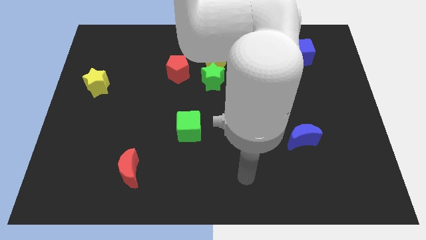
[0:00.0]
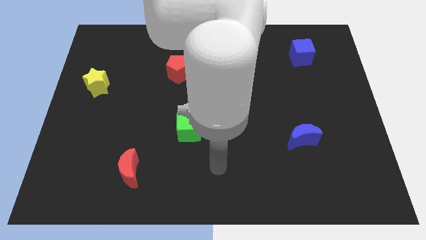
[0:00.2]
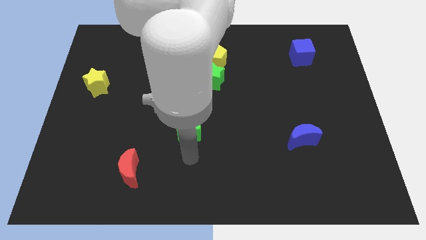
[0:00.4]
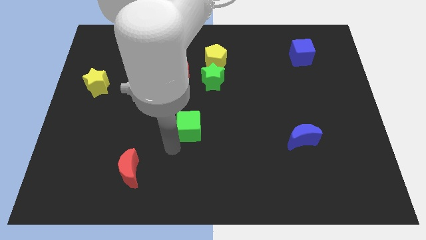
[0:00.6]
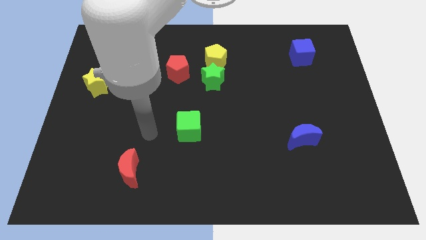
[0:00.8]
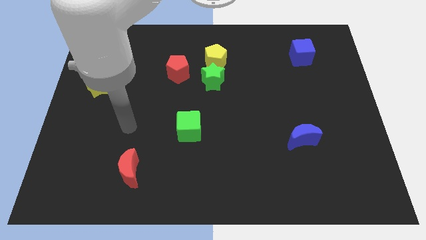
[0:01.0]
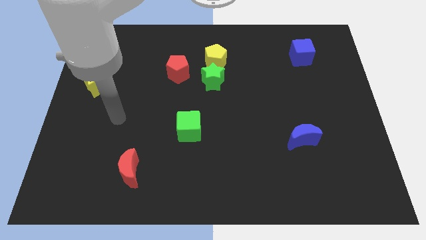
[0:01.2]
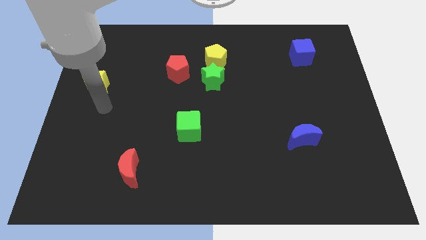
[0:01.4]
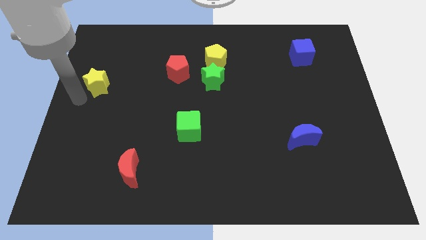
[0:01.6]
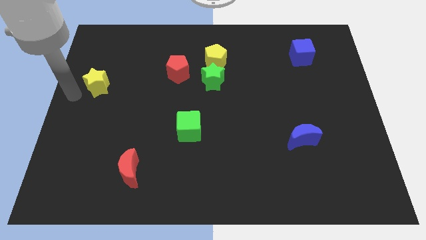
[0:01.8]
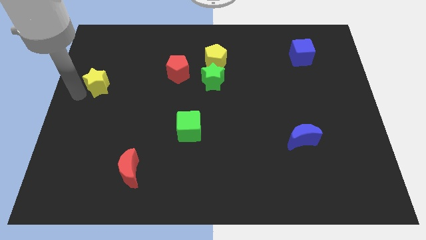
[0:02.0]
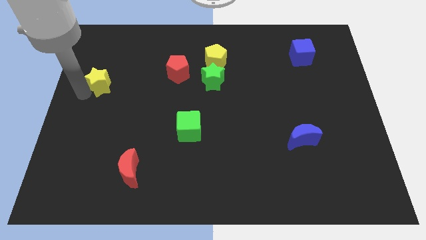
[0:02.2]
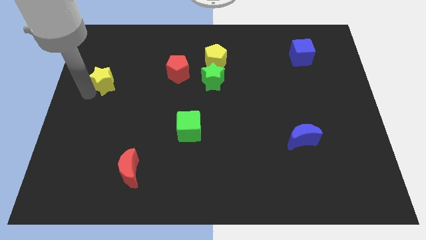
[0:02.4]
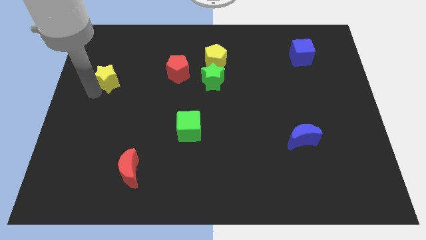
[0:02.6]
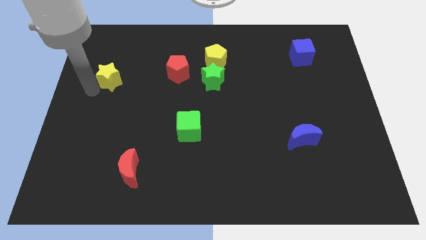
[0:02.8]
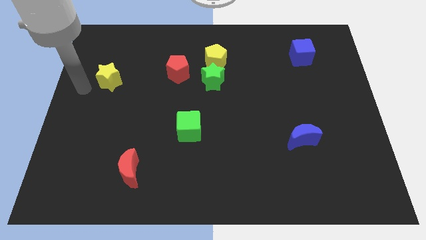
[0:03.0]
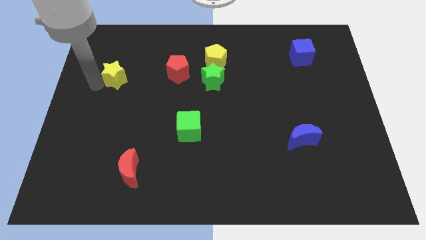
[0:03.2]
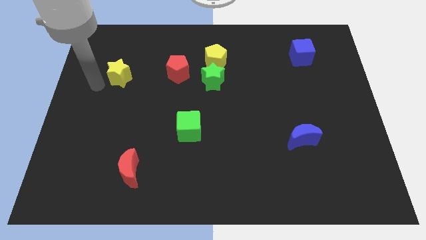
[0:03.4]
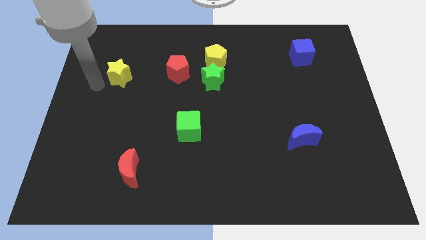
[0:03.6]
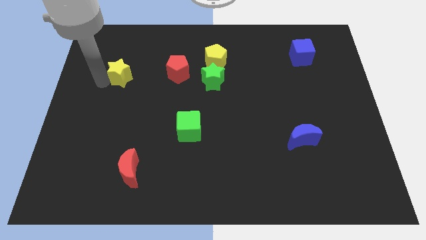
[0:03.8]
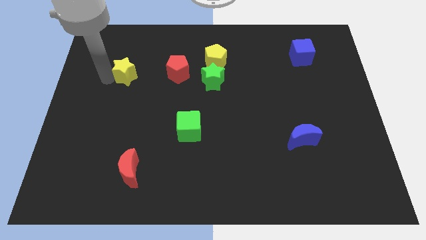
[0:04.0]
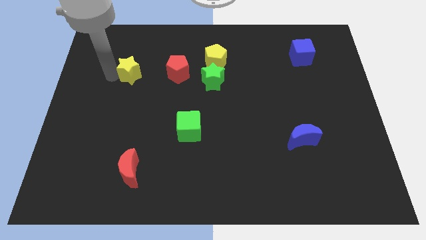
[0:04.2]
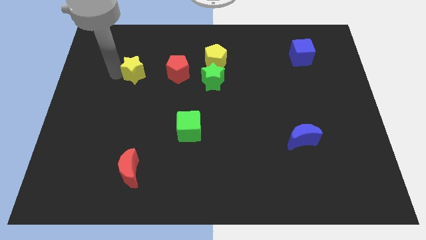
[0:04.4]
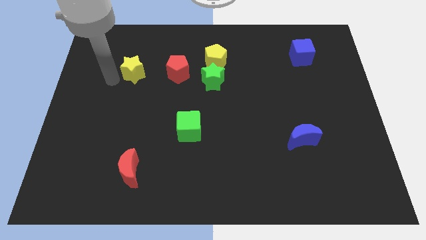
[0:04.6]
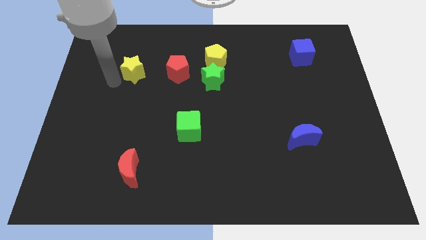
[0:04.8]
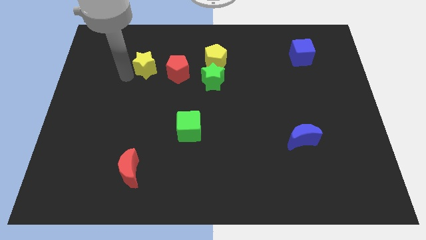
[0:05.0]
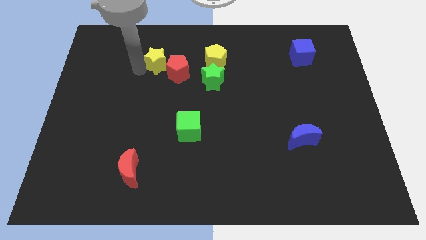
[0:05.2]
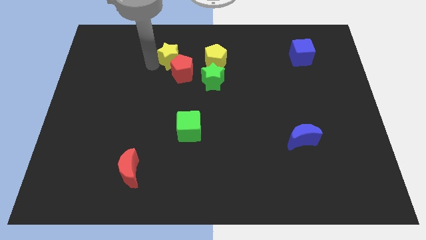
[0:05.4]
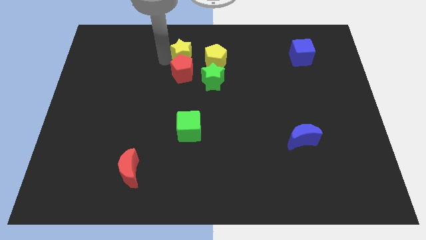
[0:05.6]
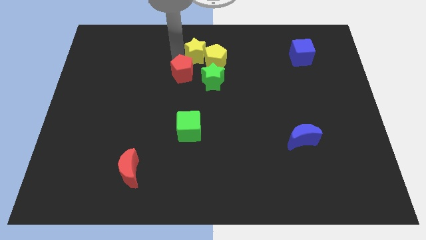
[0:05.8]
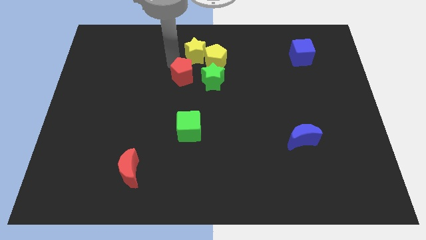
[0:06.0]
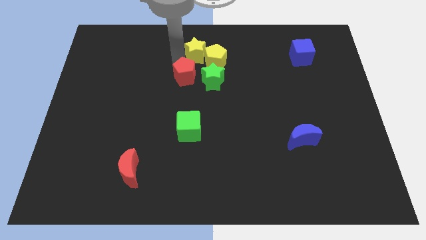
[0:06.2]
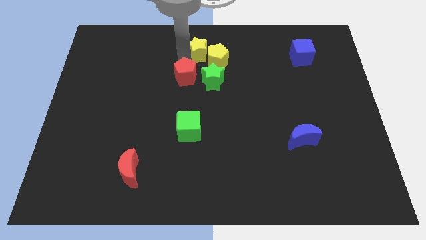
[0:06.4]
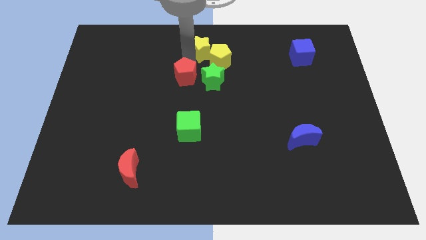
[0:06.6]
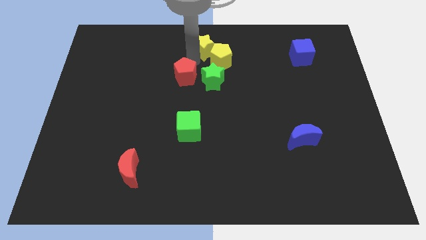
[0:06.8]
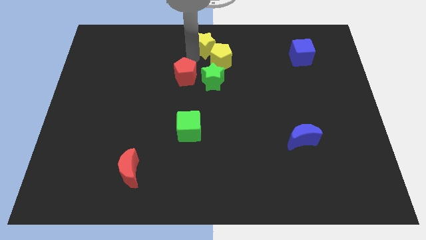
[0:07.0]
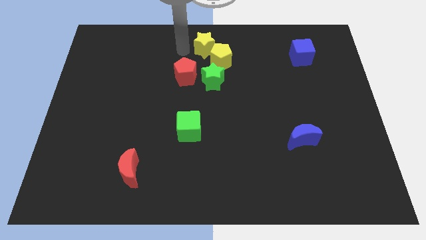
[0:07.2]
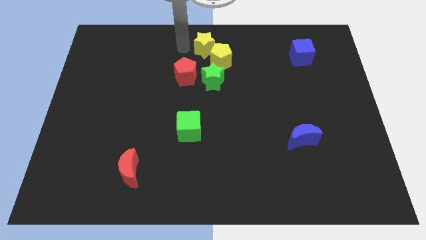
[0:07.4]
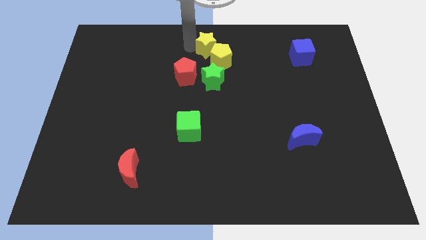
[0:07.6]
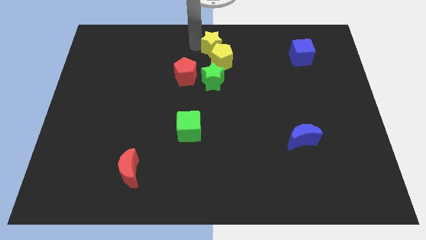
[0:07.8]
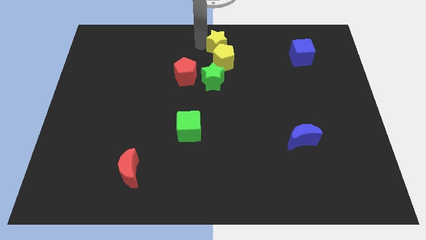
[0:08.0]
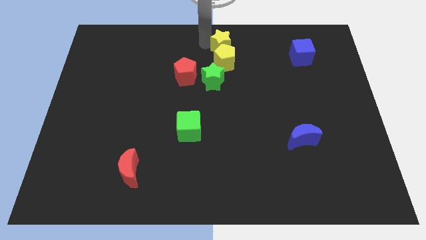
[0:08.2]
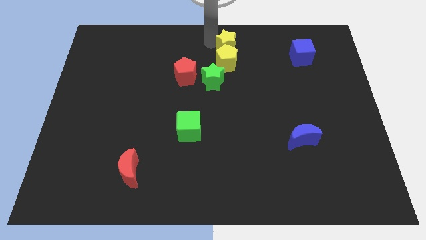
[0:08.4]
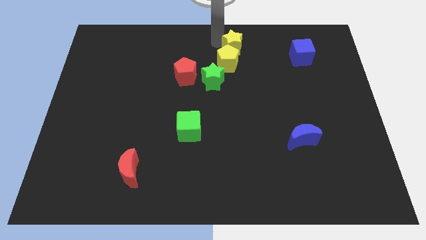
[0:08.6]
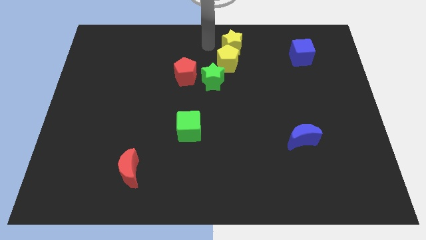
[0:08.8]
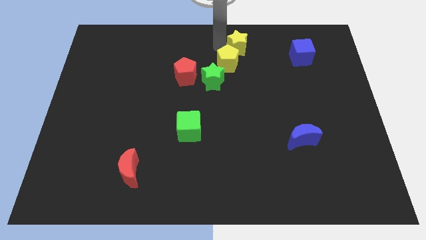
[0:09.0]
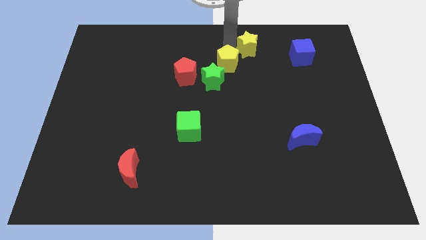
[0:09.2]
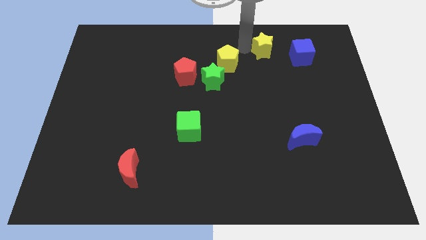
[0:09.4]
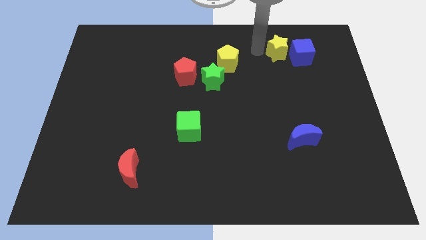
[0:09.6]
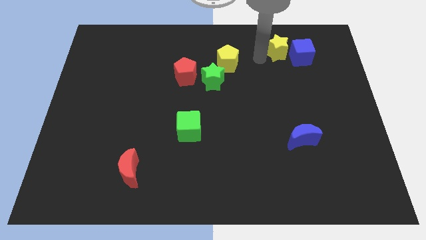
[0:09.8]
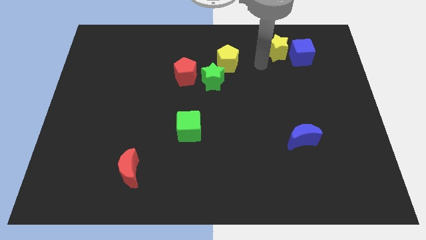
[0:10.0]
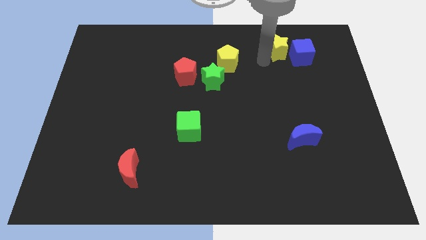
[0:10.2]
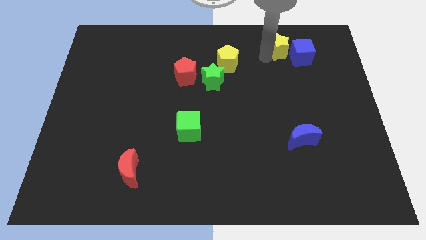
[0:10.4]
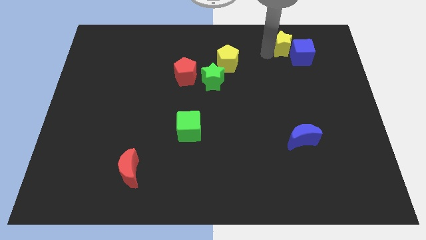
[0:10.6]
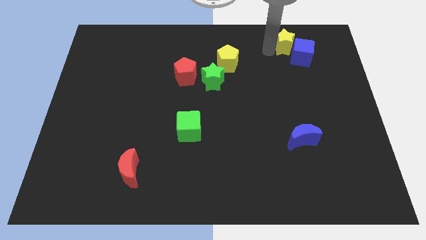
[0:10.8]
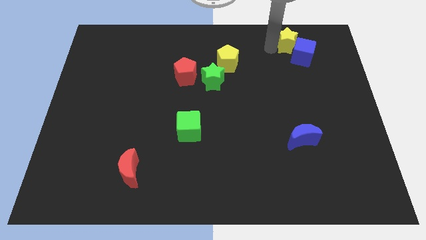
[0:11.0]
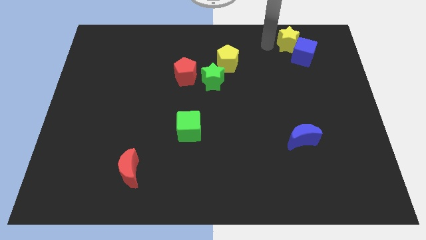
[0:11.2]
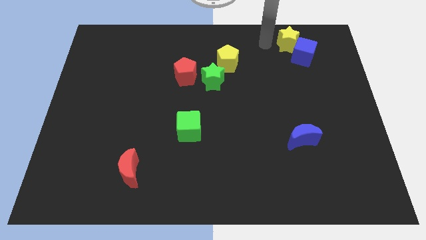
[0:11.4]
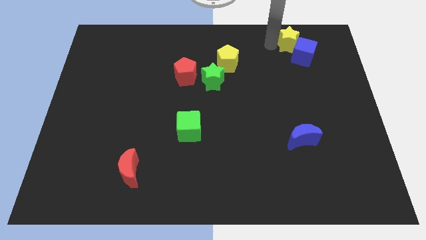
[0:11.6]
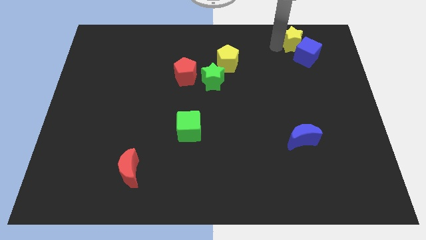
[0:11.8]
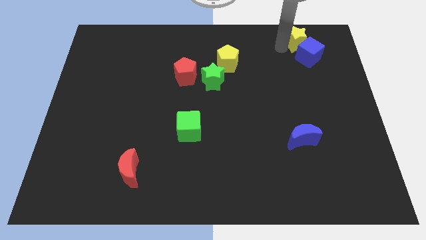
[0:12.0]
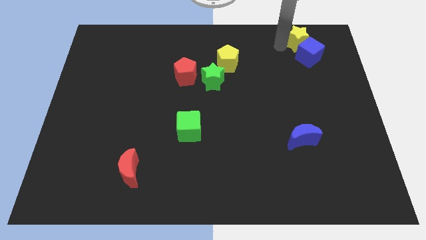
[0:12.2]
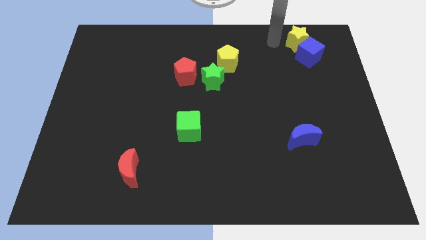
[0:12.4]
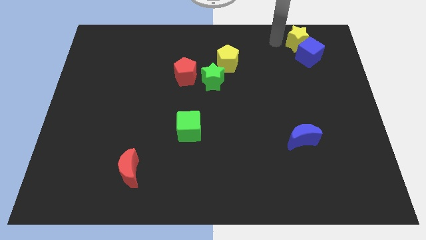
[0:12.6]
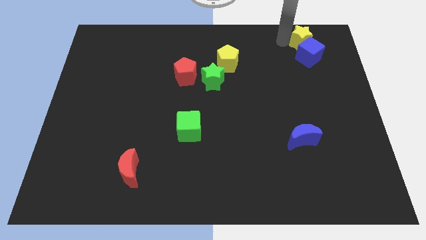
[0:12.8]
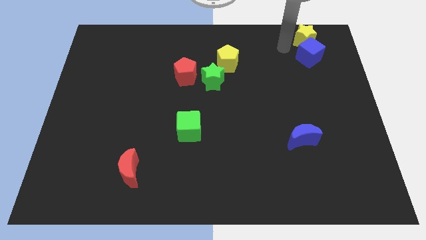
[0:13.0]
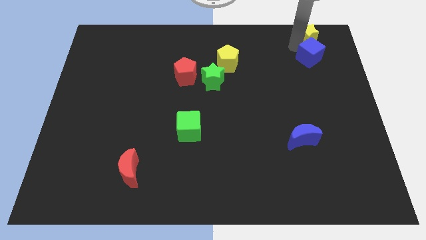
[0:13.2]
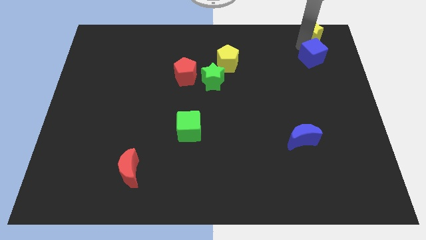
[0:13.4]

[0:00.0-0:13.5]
push the yellow star to the top right
